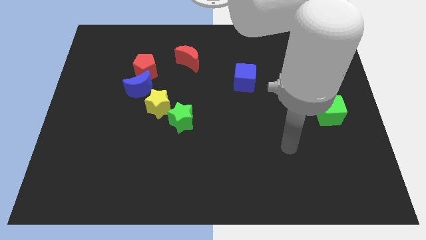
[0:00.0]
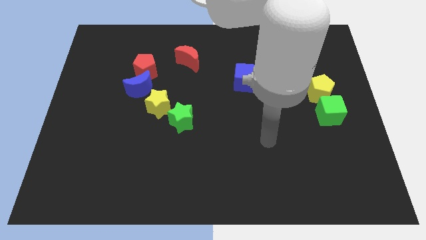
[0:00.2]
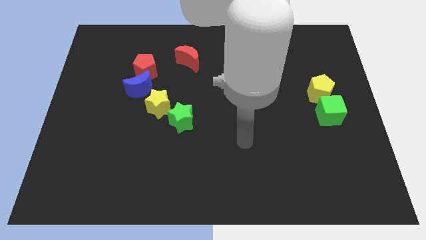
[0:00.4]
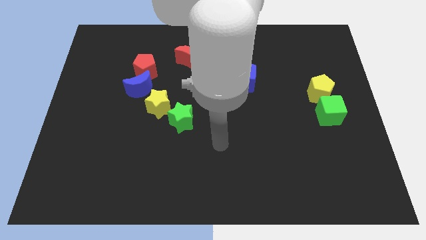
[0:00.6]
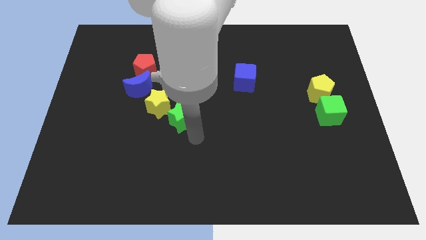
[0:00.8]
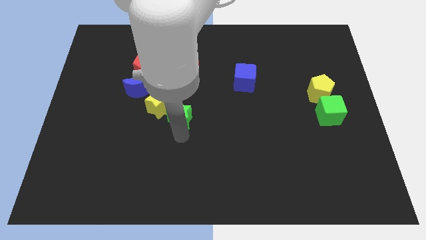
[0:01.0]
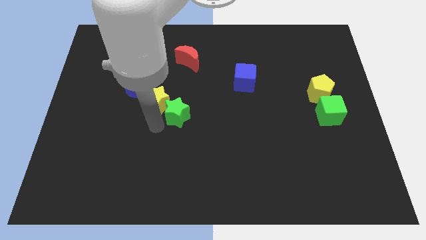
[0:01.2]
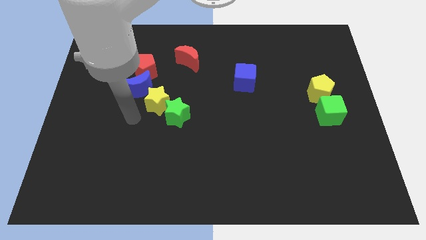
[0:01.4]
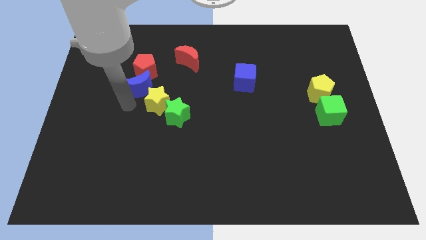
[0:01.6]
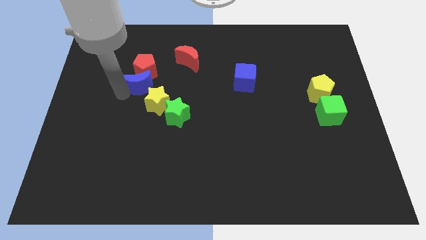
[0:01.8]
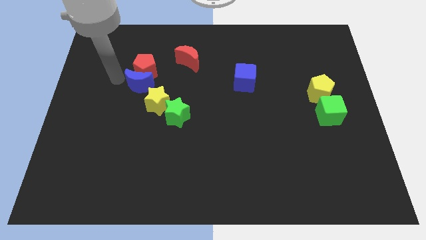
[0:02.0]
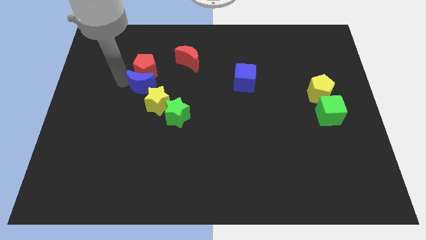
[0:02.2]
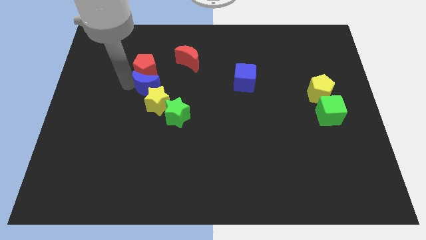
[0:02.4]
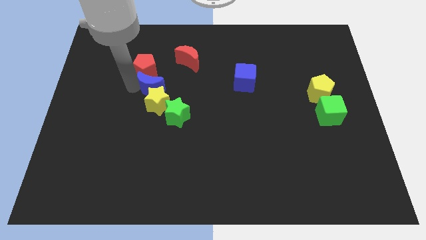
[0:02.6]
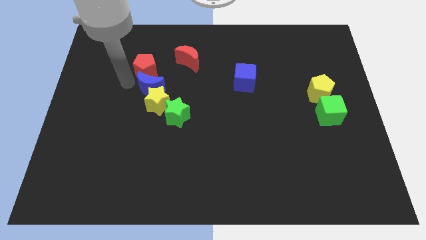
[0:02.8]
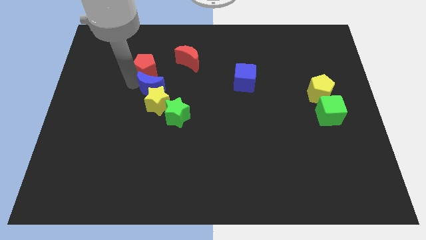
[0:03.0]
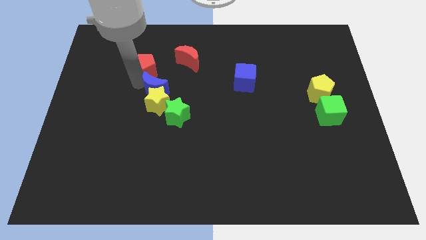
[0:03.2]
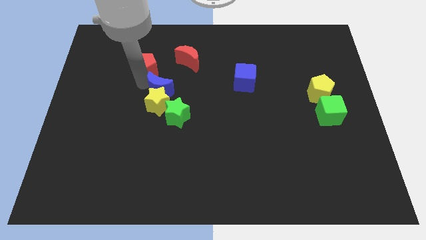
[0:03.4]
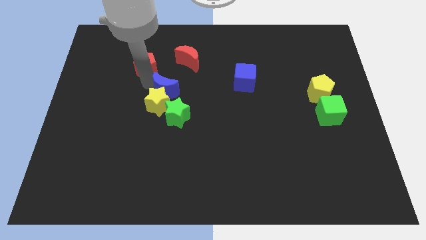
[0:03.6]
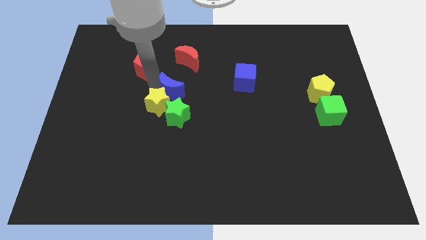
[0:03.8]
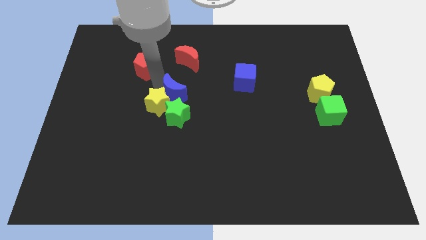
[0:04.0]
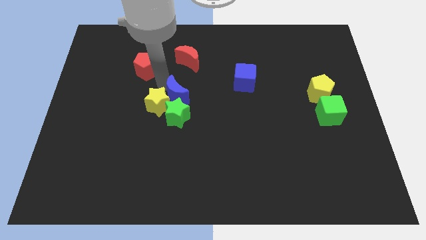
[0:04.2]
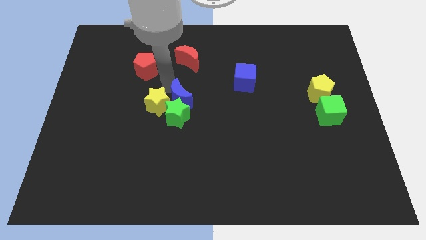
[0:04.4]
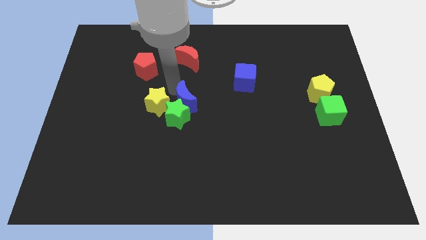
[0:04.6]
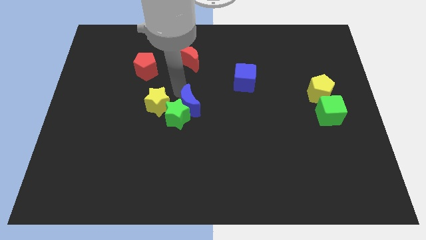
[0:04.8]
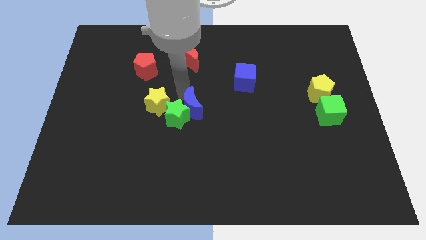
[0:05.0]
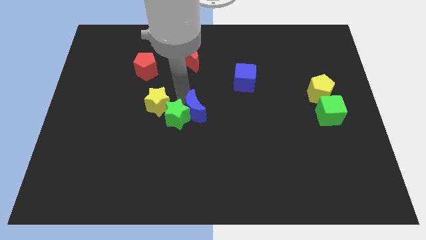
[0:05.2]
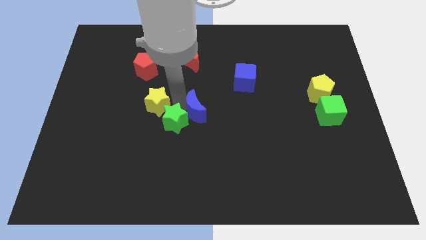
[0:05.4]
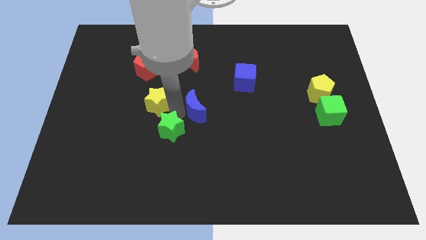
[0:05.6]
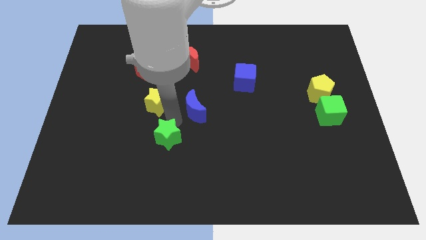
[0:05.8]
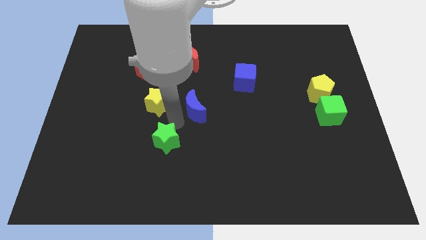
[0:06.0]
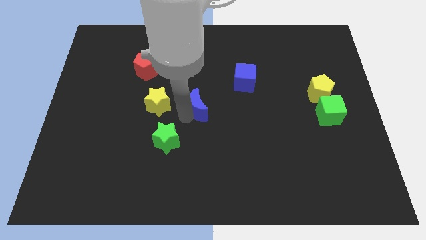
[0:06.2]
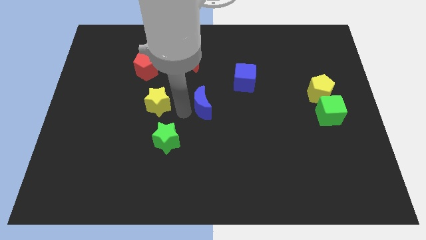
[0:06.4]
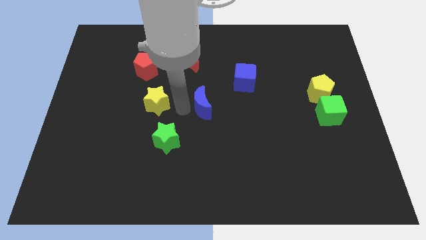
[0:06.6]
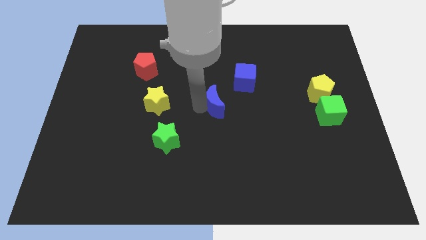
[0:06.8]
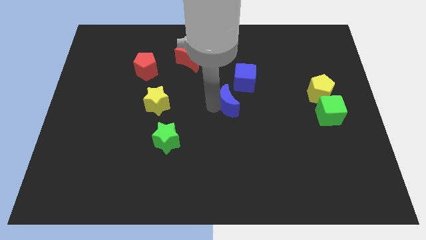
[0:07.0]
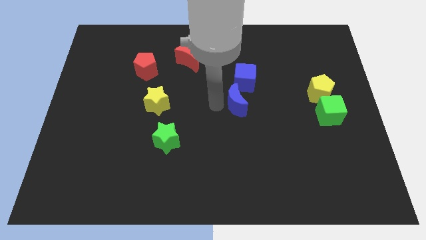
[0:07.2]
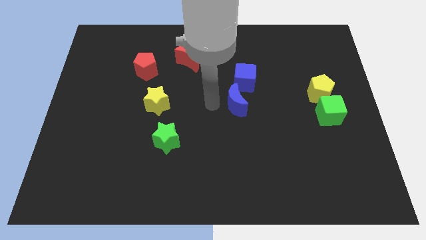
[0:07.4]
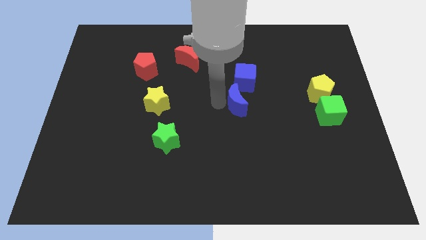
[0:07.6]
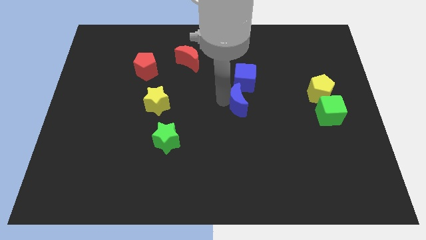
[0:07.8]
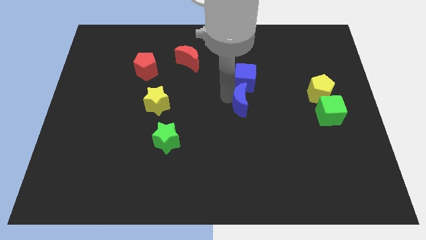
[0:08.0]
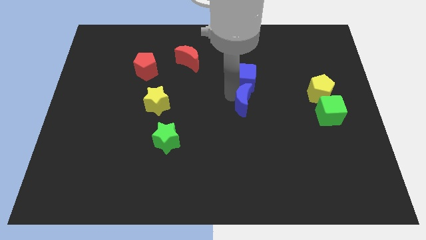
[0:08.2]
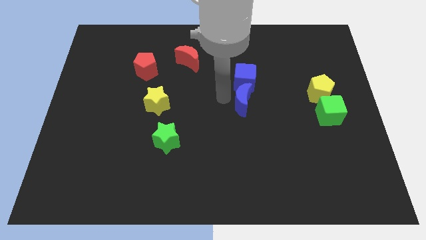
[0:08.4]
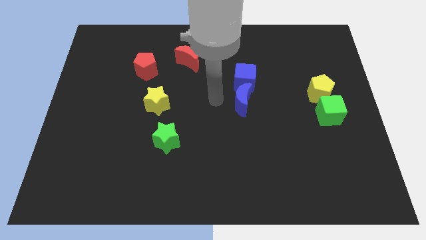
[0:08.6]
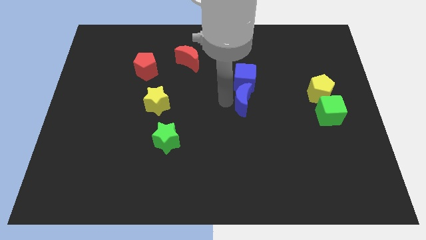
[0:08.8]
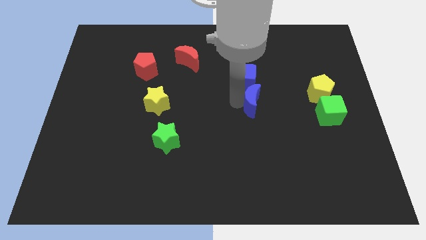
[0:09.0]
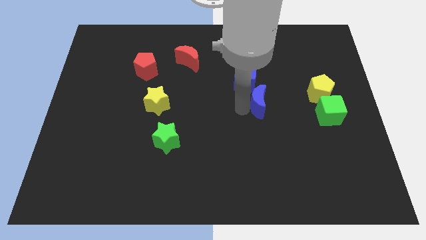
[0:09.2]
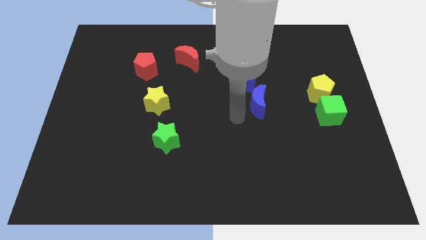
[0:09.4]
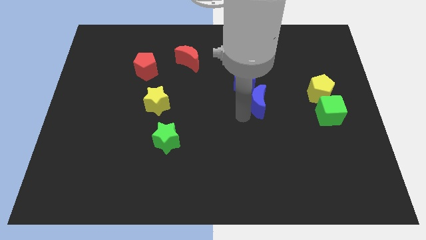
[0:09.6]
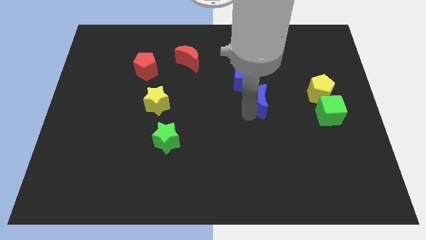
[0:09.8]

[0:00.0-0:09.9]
put the blue moon to the left side of the yellow pentagon

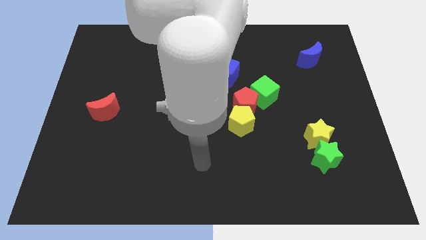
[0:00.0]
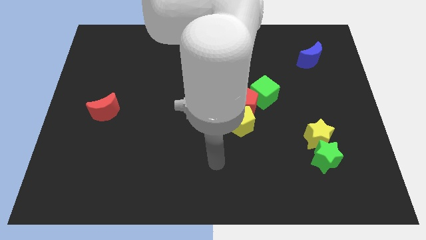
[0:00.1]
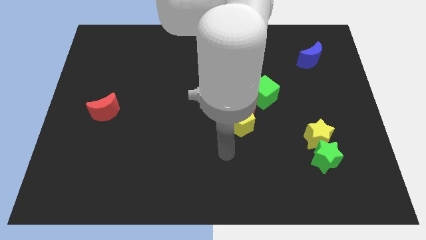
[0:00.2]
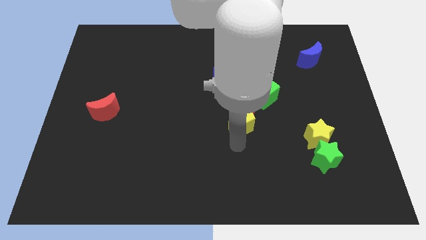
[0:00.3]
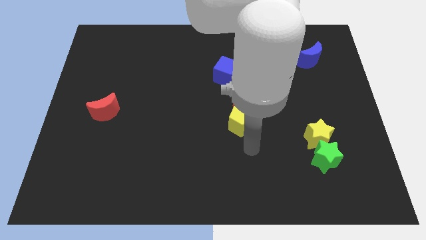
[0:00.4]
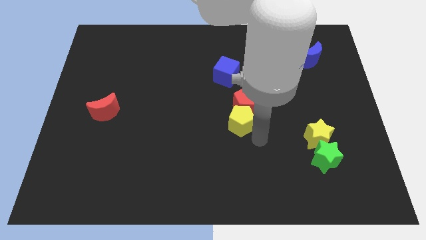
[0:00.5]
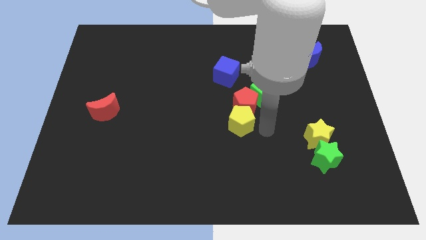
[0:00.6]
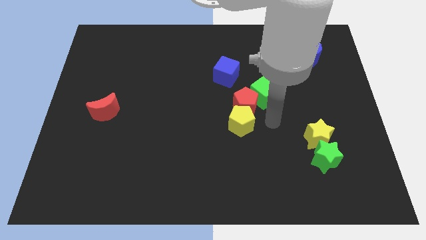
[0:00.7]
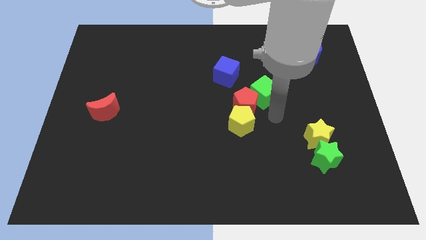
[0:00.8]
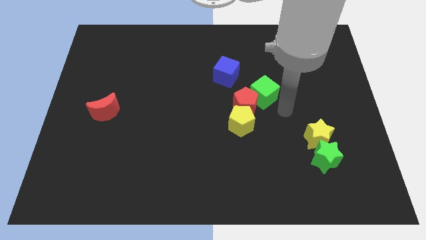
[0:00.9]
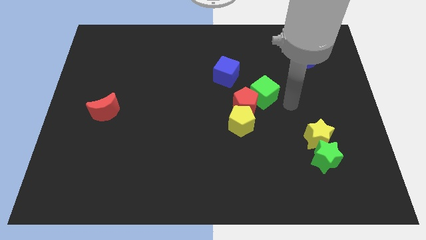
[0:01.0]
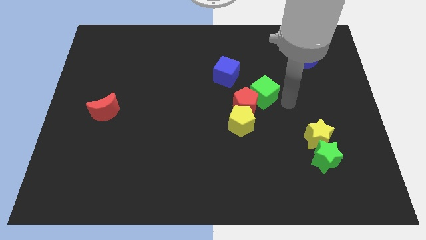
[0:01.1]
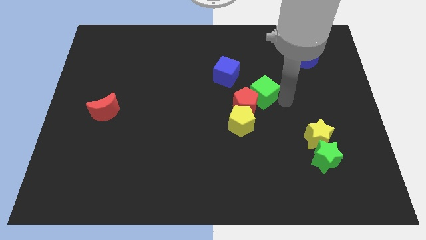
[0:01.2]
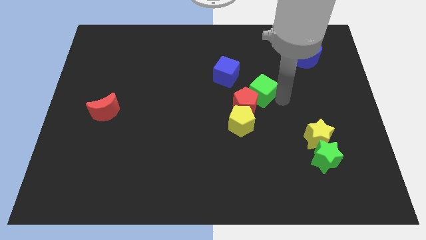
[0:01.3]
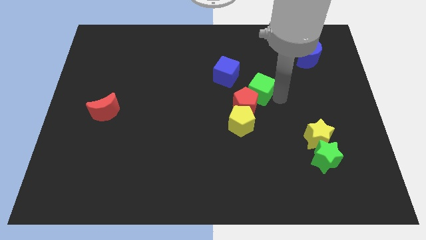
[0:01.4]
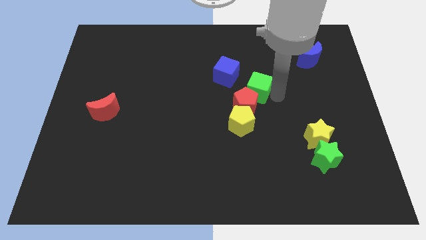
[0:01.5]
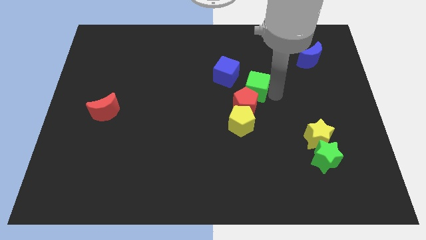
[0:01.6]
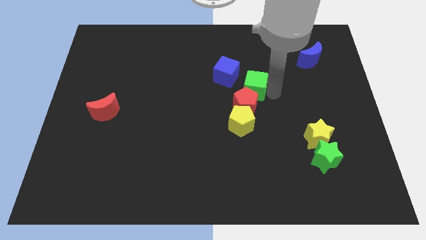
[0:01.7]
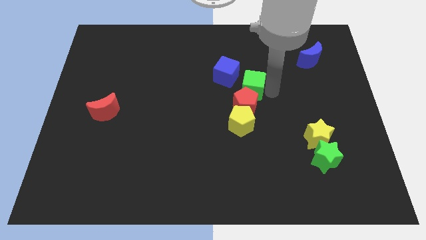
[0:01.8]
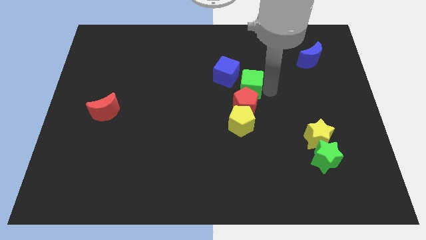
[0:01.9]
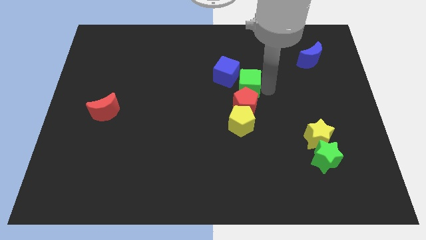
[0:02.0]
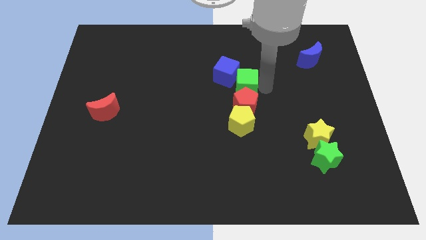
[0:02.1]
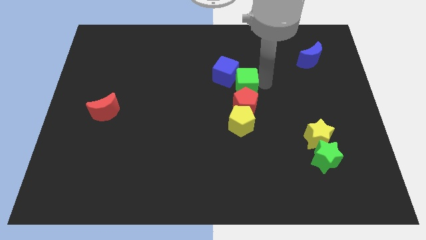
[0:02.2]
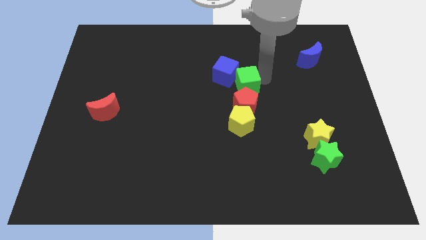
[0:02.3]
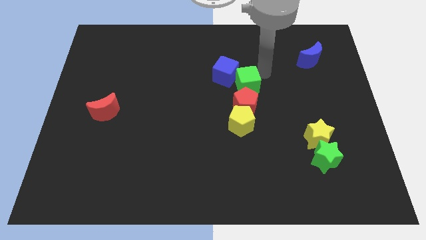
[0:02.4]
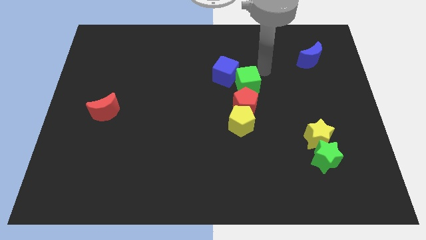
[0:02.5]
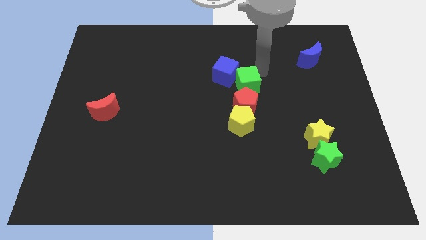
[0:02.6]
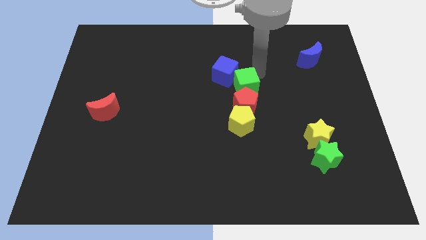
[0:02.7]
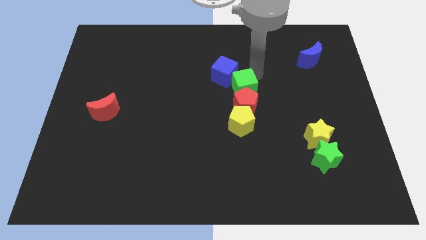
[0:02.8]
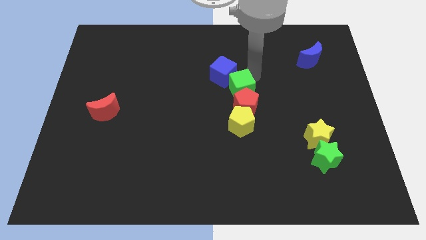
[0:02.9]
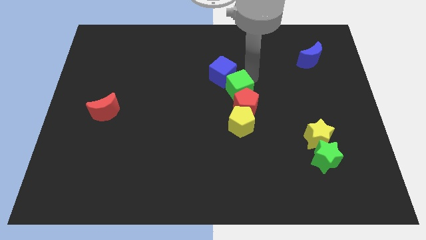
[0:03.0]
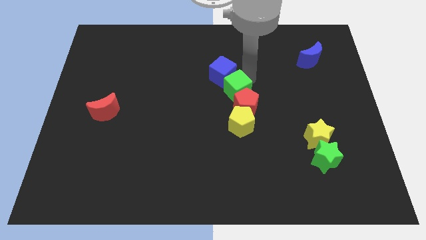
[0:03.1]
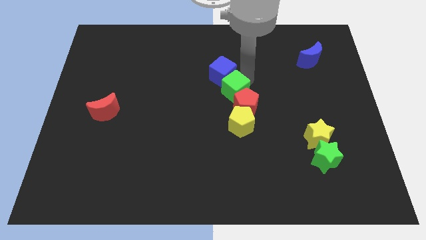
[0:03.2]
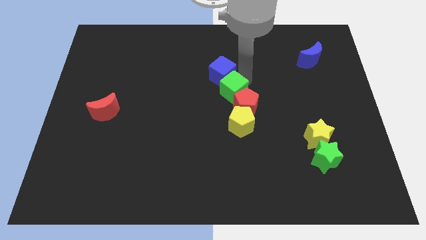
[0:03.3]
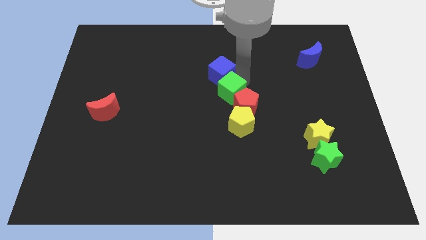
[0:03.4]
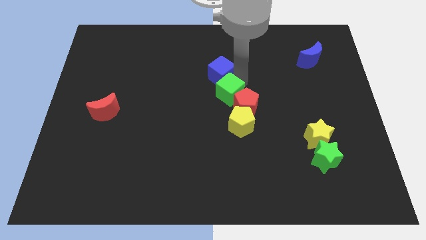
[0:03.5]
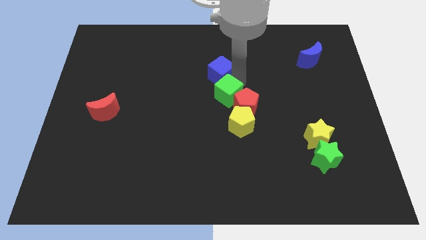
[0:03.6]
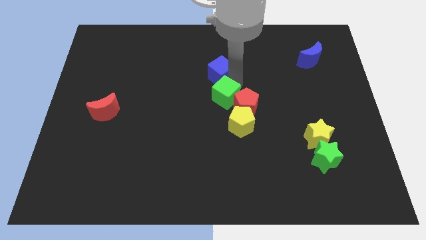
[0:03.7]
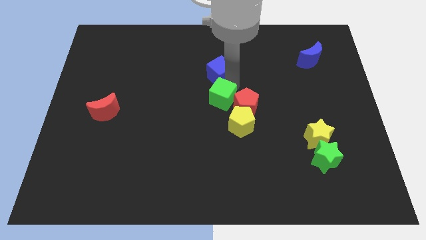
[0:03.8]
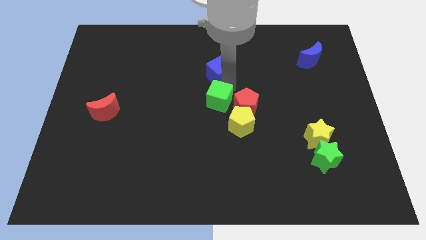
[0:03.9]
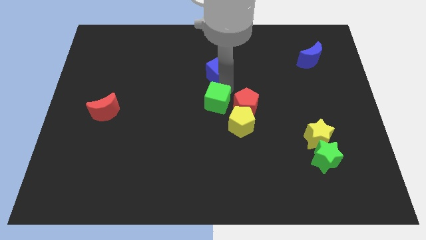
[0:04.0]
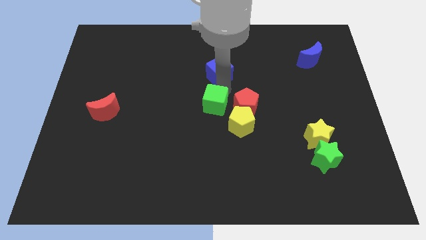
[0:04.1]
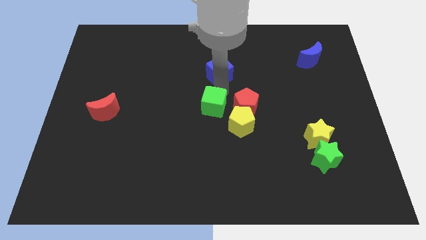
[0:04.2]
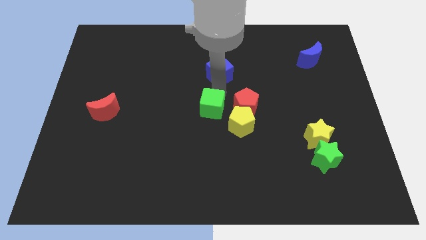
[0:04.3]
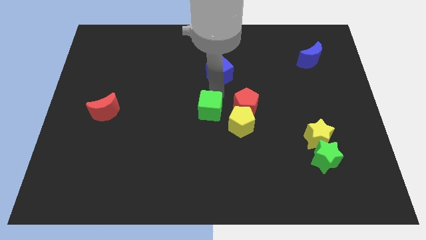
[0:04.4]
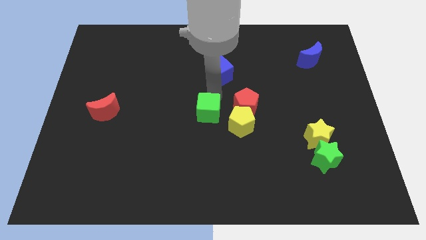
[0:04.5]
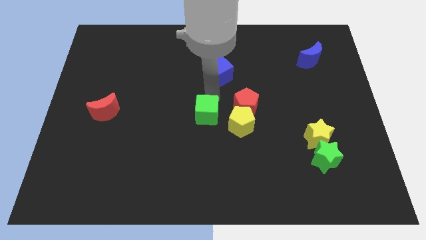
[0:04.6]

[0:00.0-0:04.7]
slide the green cube to the bottom left of the red pentagon
